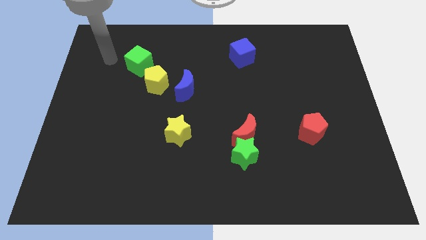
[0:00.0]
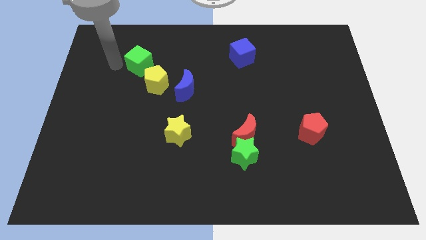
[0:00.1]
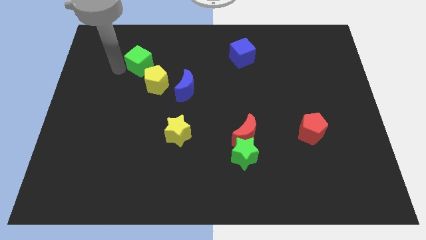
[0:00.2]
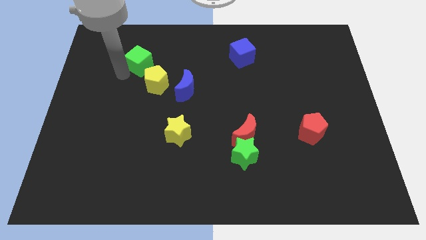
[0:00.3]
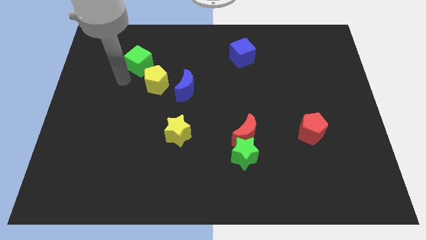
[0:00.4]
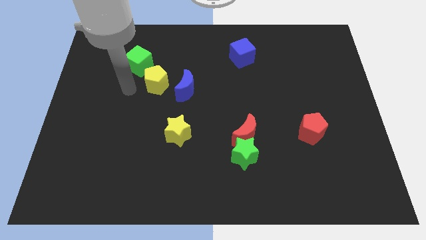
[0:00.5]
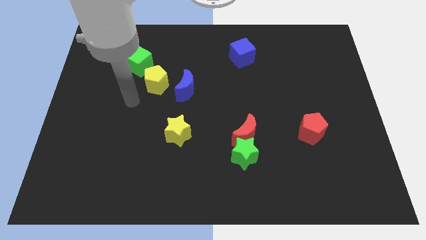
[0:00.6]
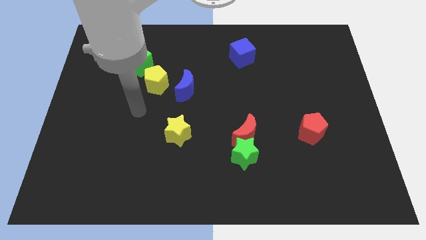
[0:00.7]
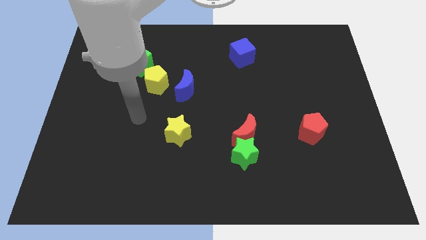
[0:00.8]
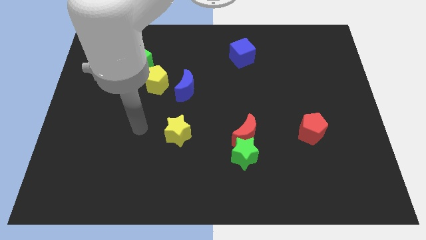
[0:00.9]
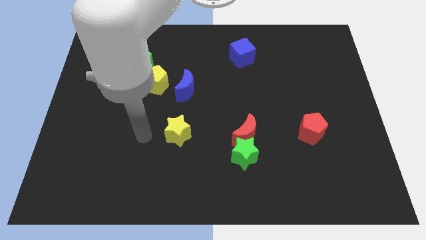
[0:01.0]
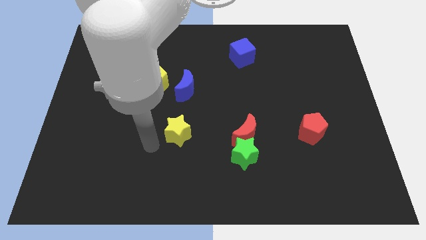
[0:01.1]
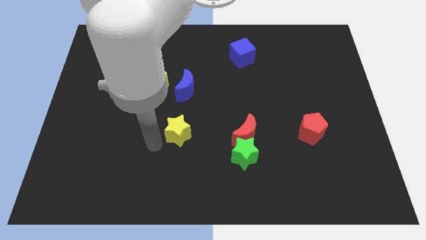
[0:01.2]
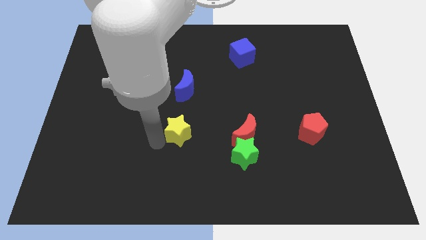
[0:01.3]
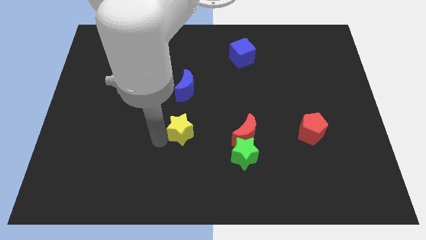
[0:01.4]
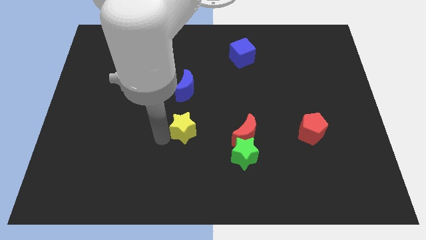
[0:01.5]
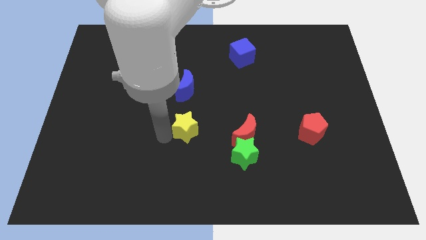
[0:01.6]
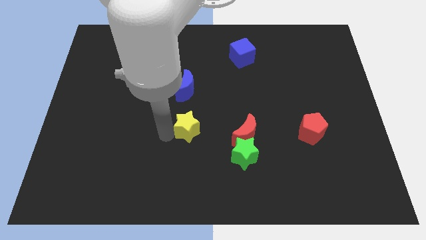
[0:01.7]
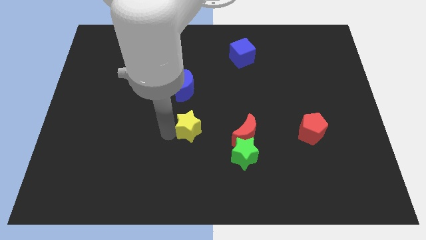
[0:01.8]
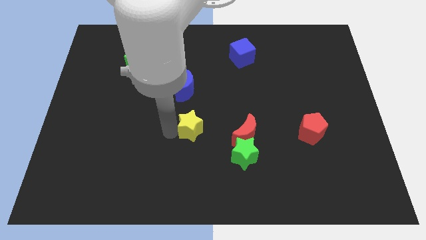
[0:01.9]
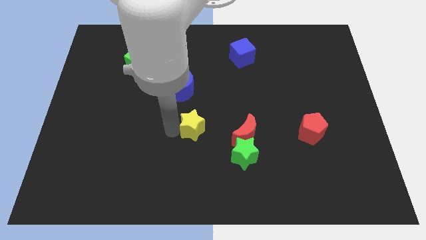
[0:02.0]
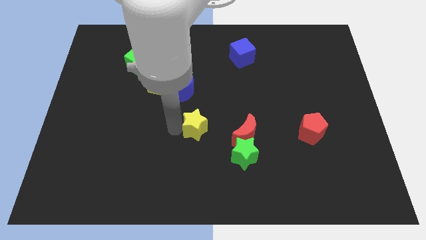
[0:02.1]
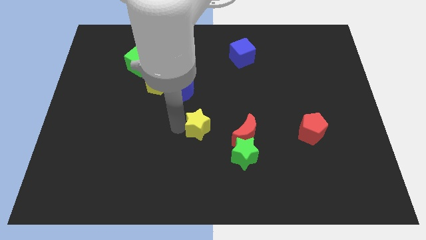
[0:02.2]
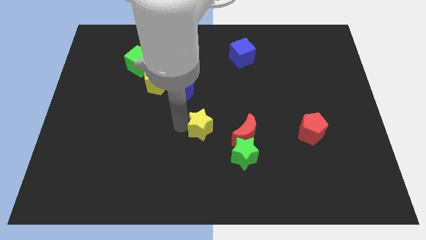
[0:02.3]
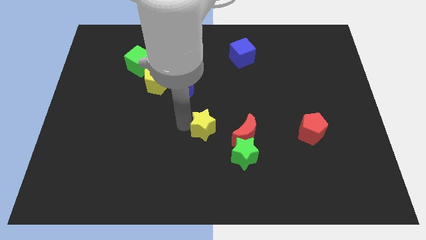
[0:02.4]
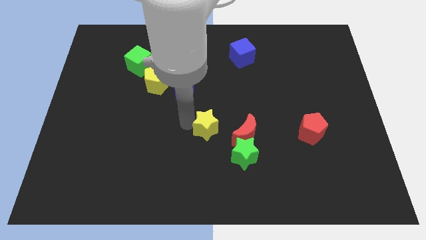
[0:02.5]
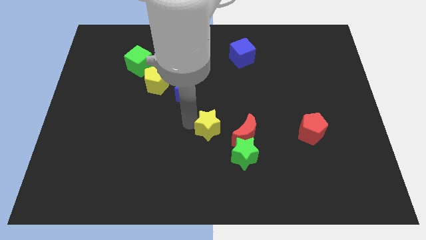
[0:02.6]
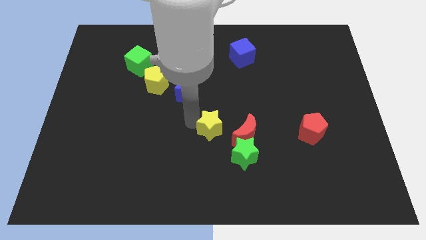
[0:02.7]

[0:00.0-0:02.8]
slightly push the yellow star right

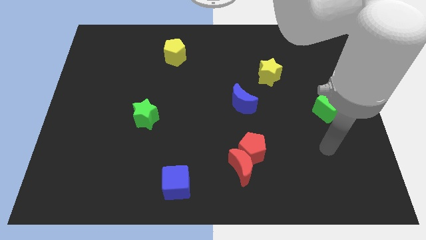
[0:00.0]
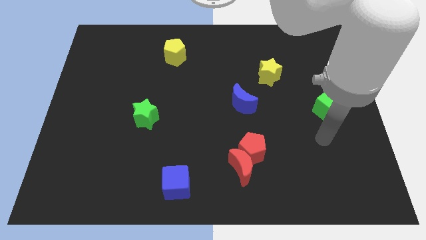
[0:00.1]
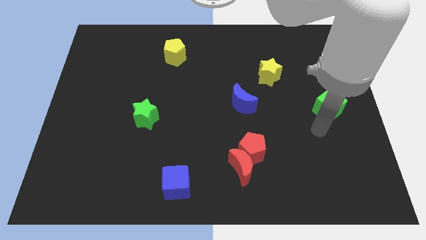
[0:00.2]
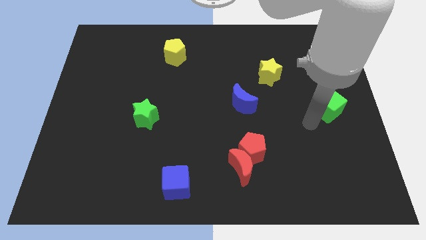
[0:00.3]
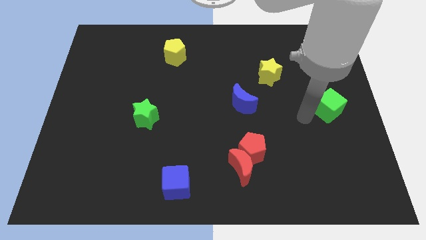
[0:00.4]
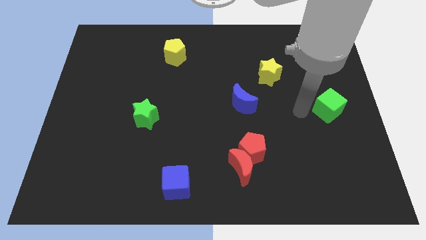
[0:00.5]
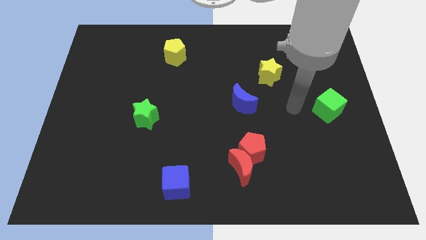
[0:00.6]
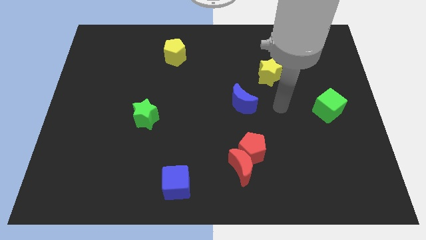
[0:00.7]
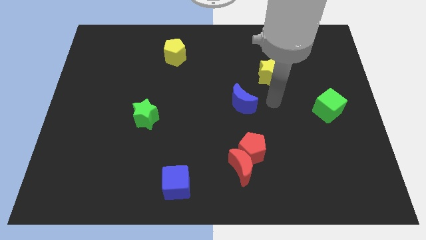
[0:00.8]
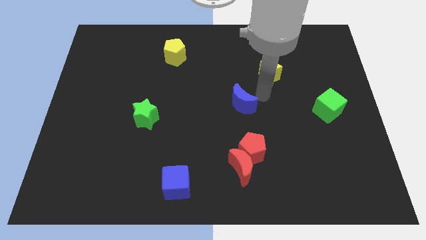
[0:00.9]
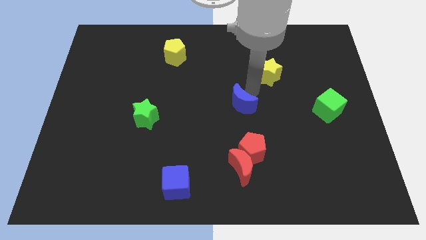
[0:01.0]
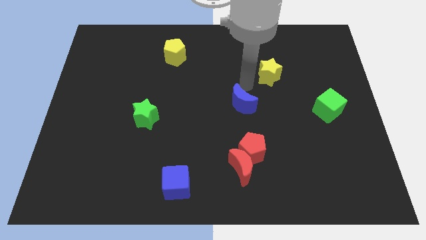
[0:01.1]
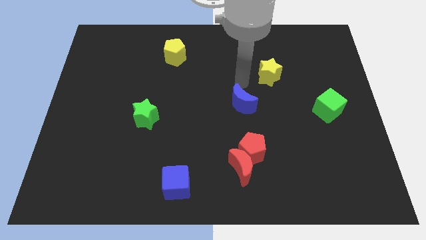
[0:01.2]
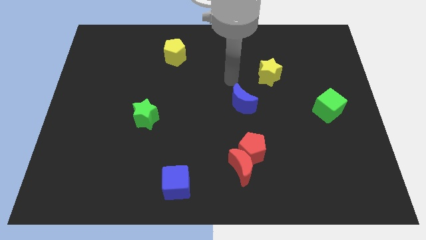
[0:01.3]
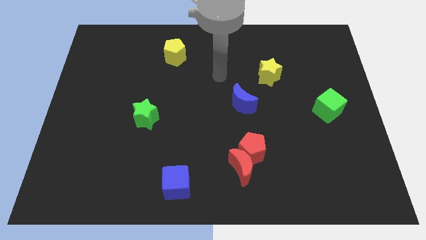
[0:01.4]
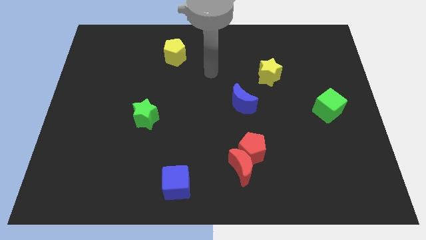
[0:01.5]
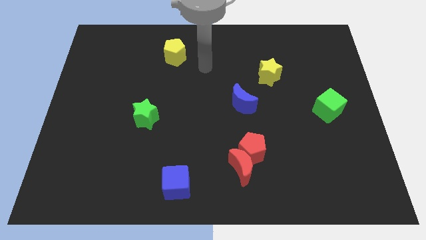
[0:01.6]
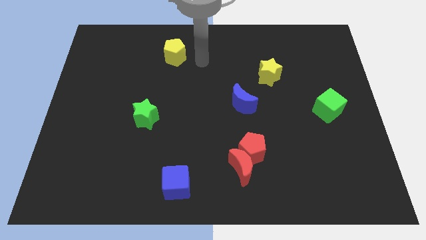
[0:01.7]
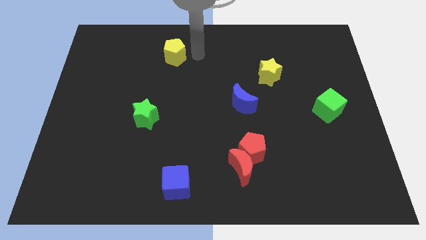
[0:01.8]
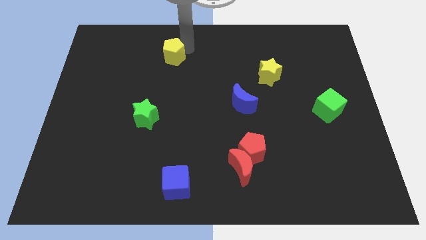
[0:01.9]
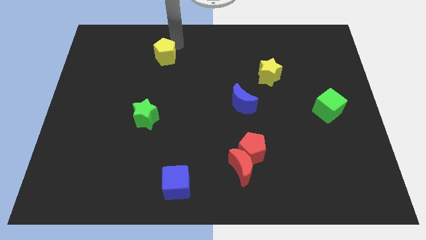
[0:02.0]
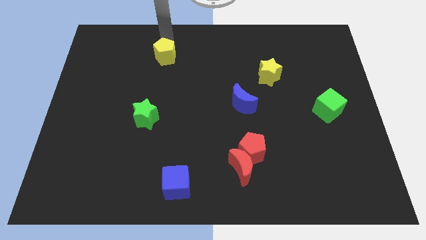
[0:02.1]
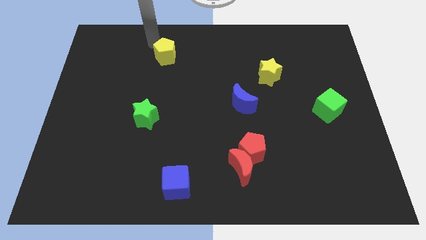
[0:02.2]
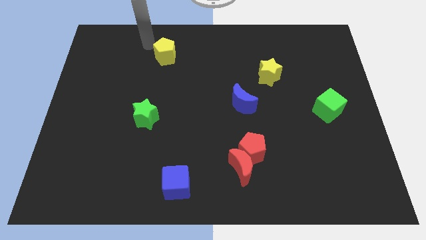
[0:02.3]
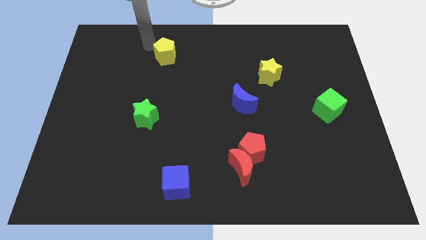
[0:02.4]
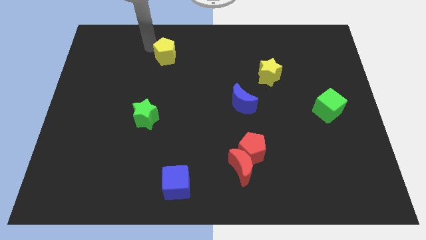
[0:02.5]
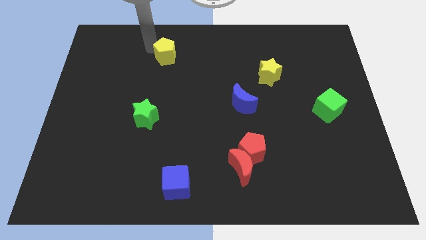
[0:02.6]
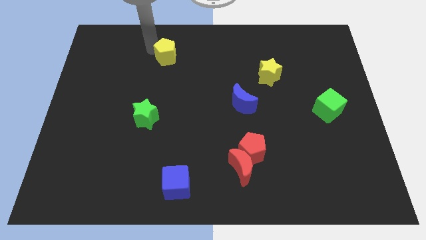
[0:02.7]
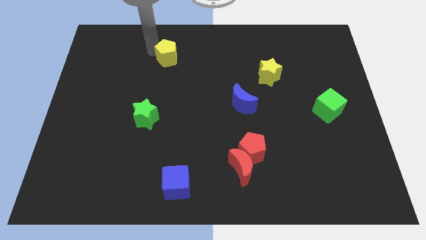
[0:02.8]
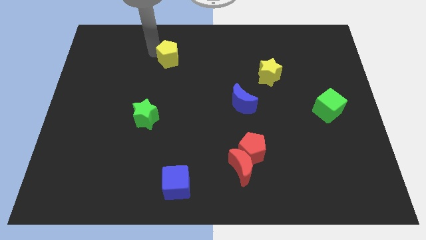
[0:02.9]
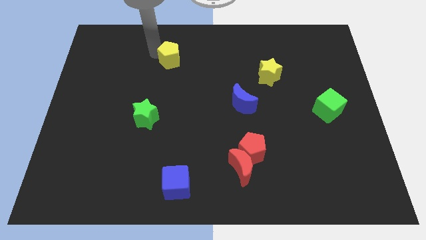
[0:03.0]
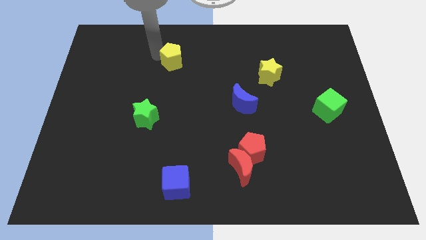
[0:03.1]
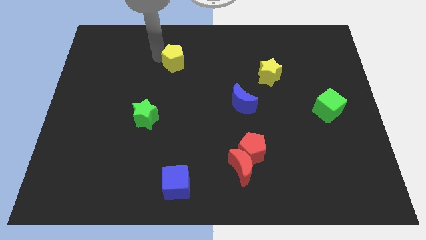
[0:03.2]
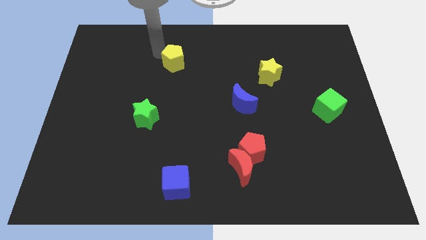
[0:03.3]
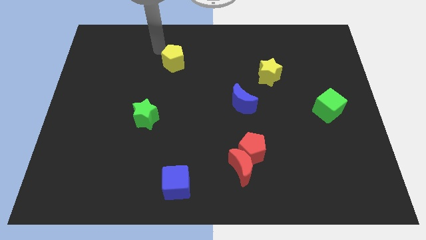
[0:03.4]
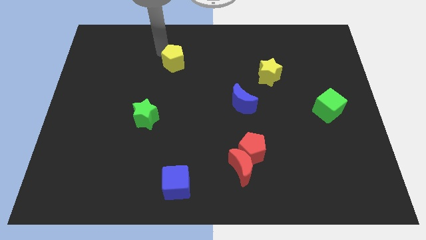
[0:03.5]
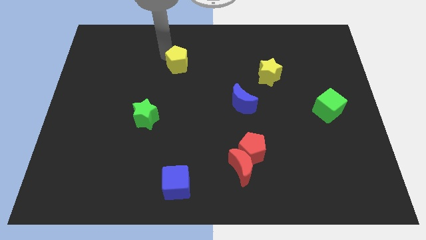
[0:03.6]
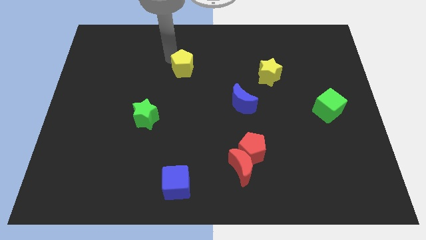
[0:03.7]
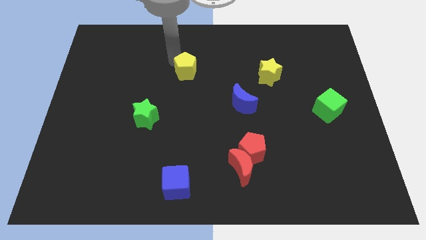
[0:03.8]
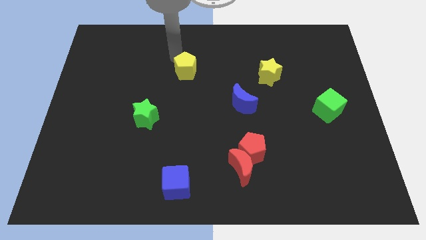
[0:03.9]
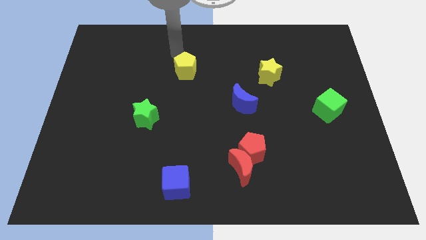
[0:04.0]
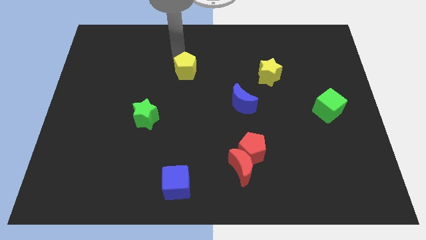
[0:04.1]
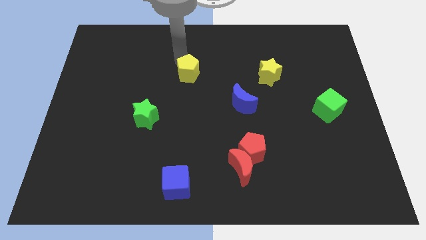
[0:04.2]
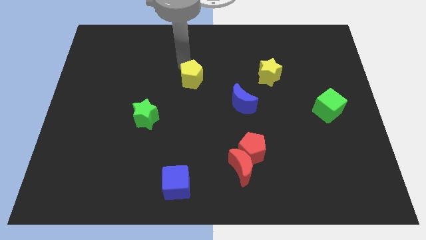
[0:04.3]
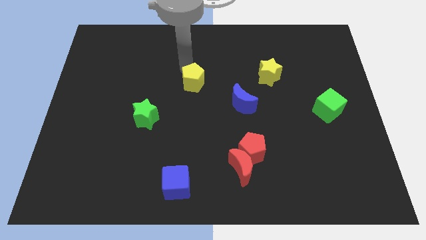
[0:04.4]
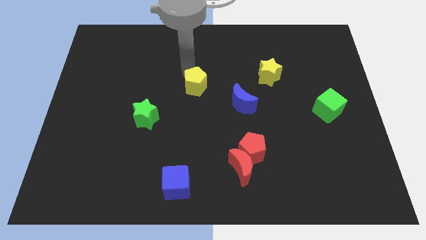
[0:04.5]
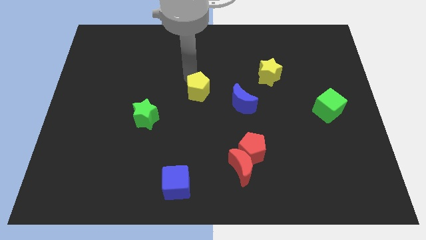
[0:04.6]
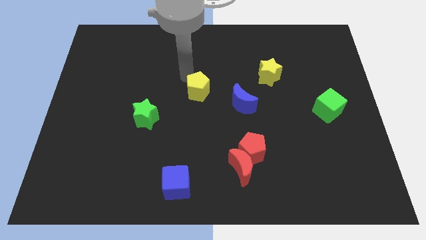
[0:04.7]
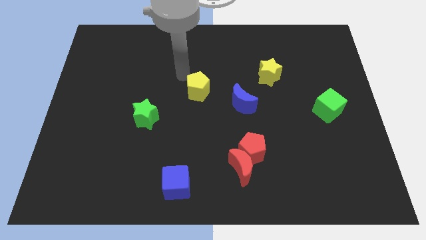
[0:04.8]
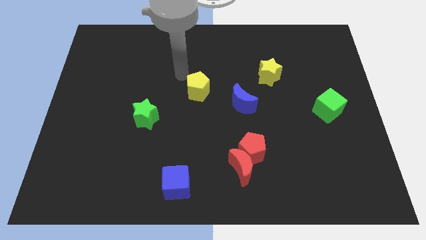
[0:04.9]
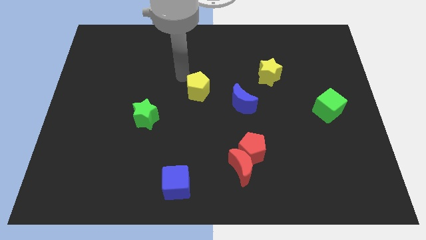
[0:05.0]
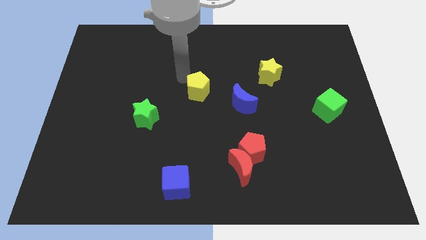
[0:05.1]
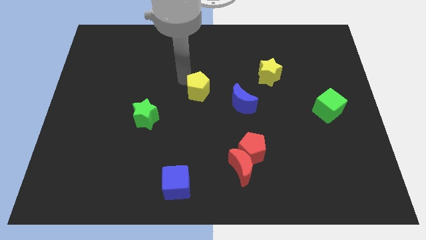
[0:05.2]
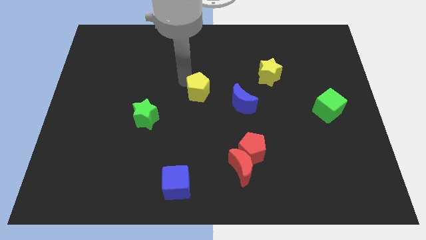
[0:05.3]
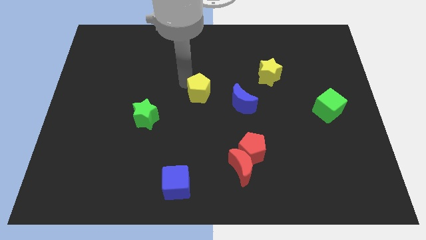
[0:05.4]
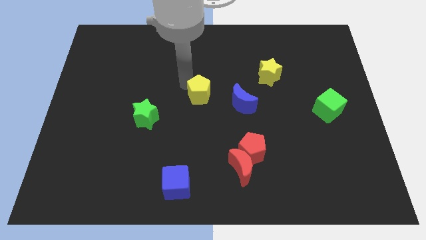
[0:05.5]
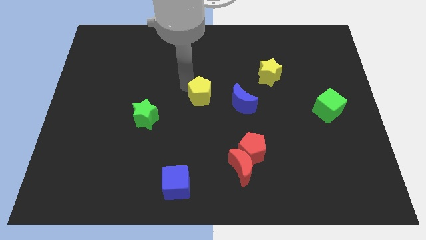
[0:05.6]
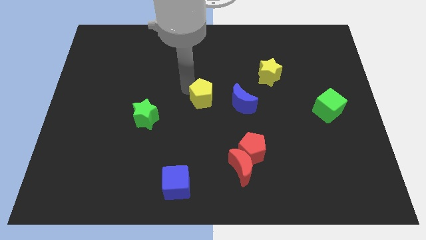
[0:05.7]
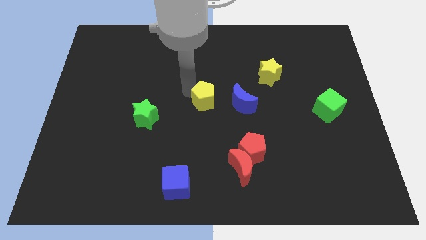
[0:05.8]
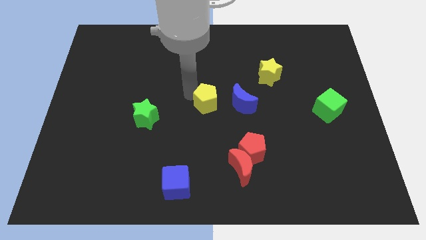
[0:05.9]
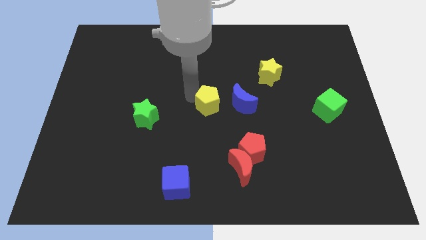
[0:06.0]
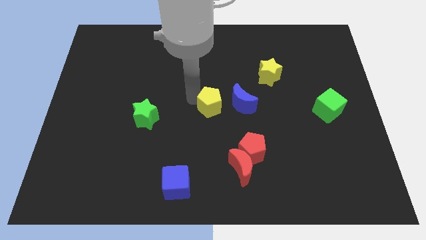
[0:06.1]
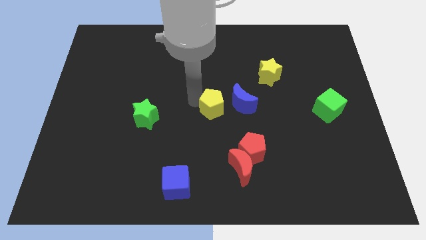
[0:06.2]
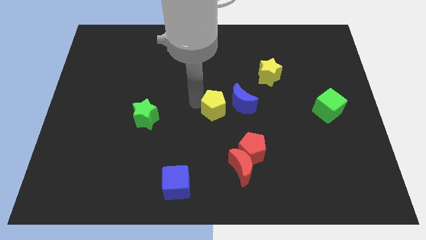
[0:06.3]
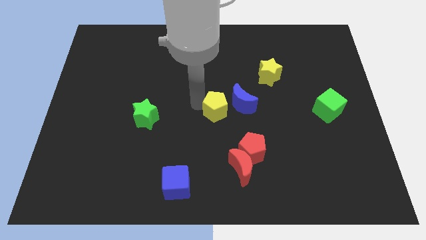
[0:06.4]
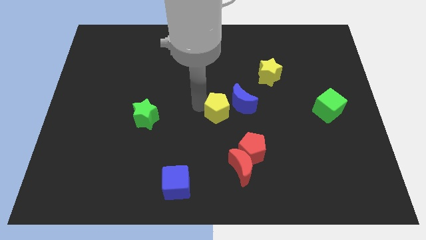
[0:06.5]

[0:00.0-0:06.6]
slide the yellow pentagon downwards and then right
